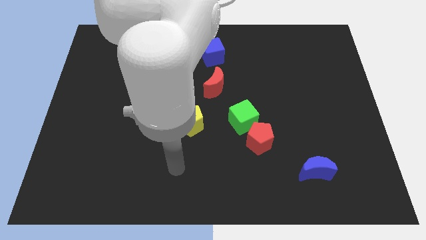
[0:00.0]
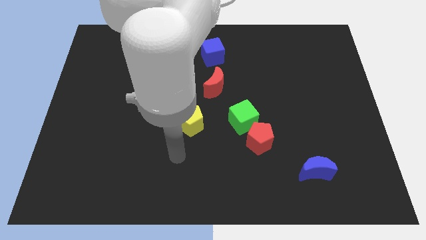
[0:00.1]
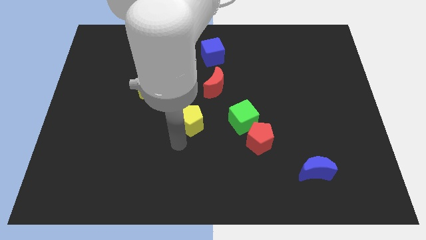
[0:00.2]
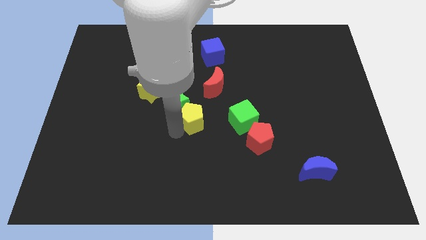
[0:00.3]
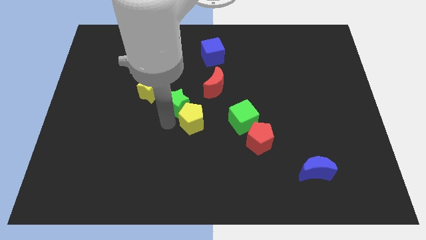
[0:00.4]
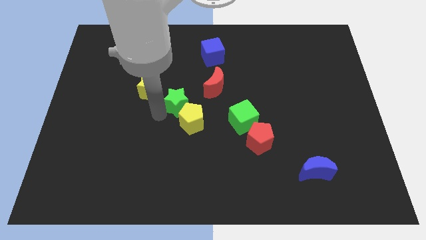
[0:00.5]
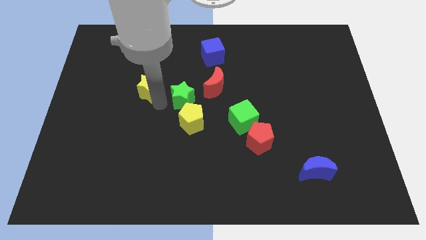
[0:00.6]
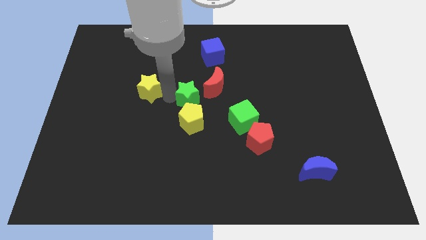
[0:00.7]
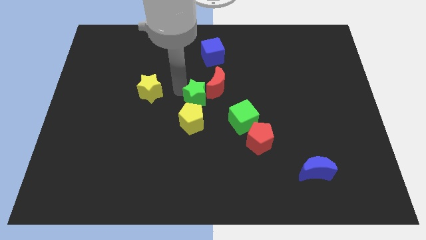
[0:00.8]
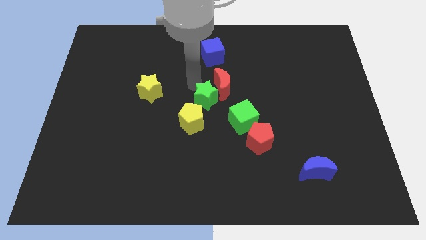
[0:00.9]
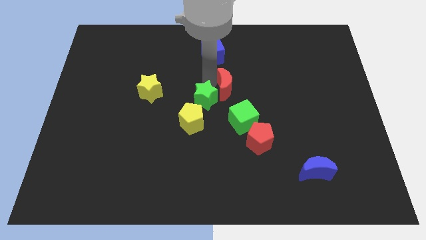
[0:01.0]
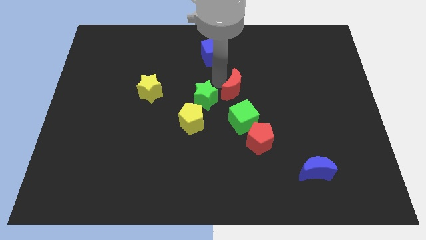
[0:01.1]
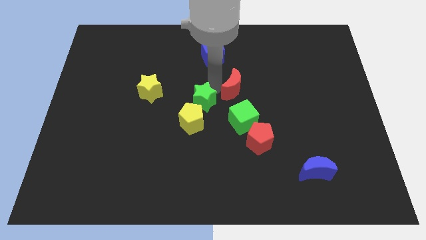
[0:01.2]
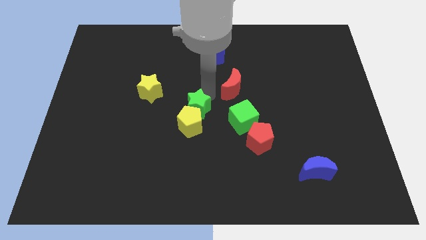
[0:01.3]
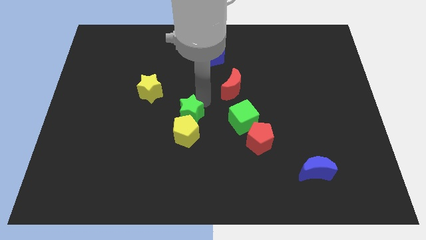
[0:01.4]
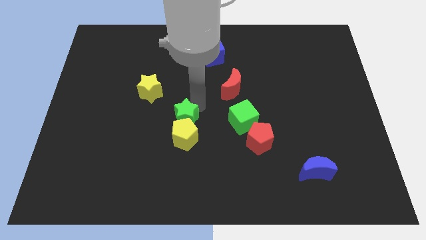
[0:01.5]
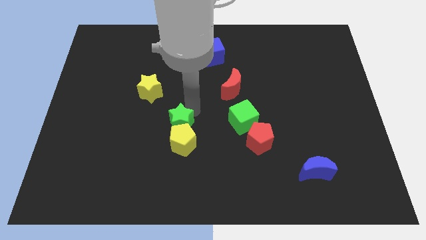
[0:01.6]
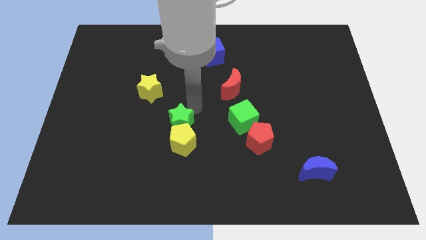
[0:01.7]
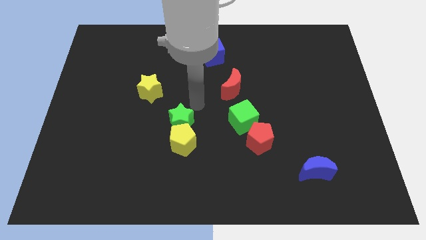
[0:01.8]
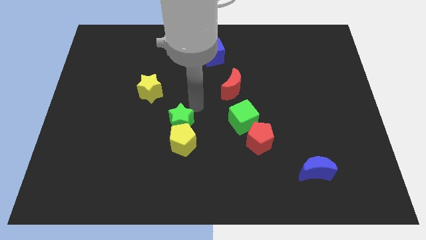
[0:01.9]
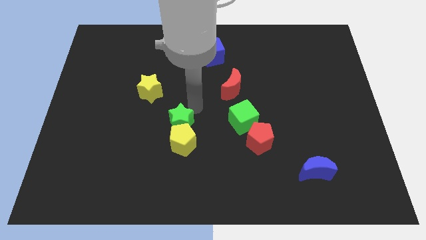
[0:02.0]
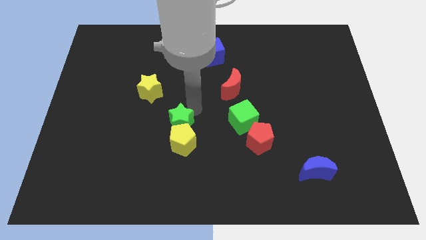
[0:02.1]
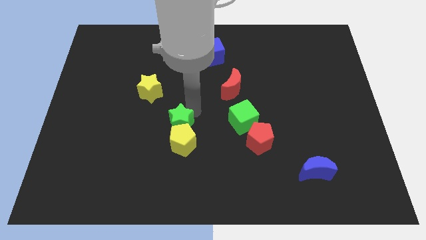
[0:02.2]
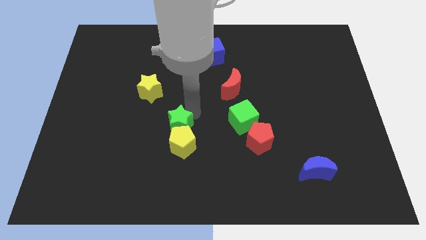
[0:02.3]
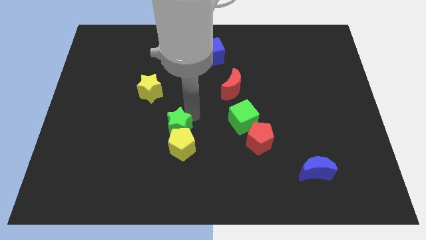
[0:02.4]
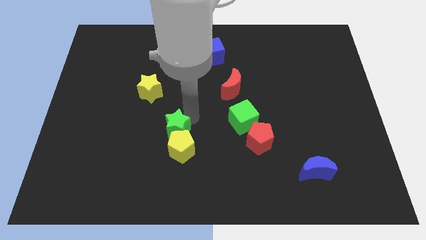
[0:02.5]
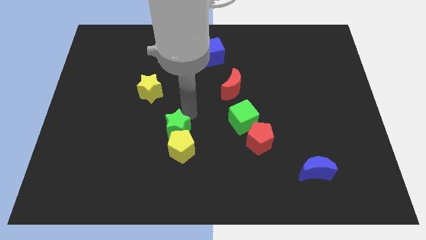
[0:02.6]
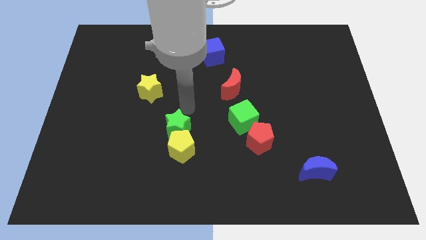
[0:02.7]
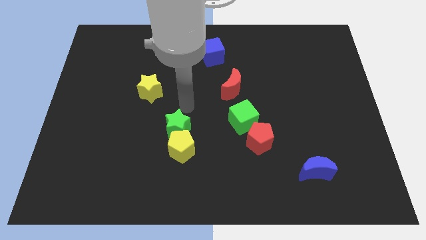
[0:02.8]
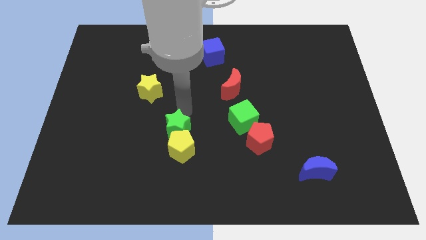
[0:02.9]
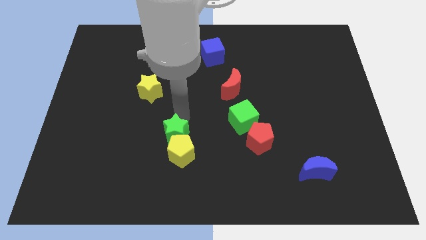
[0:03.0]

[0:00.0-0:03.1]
slightly move the green star down

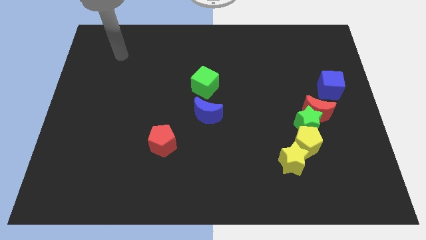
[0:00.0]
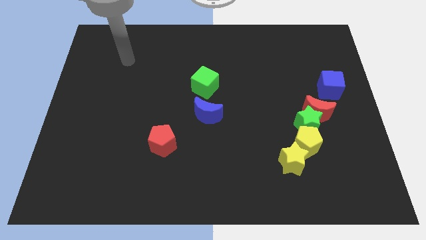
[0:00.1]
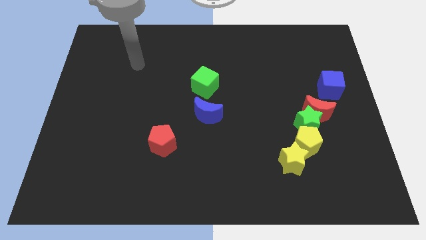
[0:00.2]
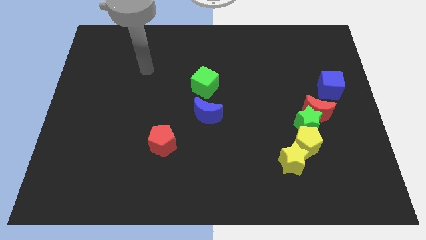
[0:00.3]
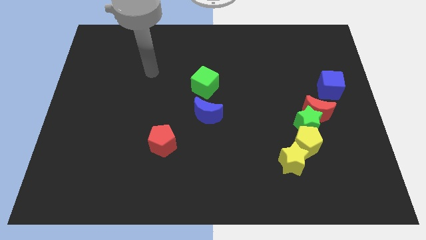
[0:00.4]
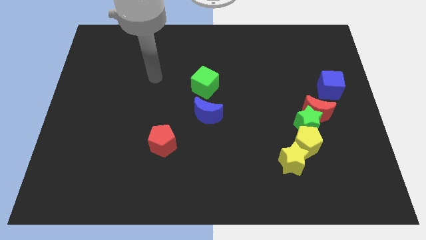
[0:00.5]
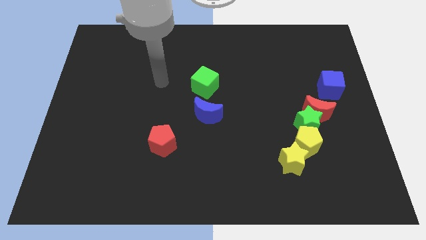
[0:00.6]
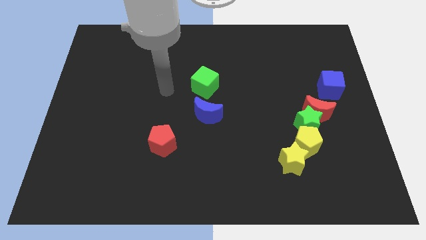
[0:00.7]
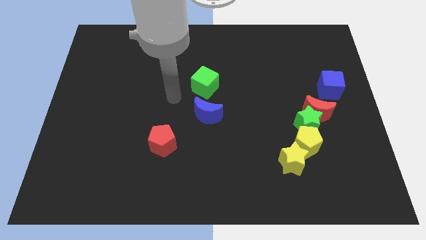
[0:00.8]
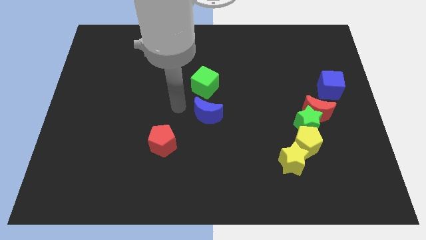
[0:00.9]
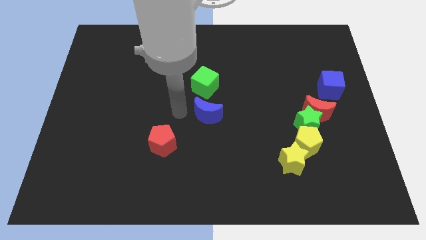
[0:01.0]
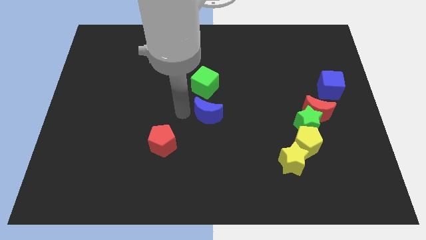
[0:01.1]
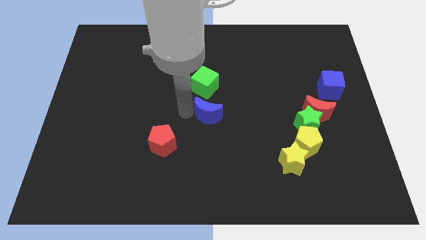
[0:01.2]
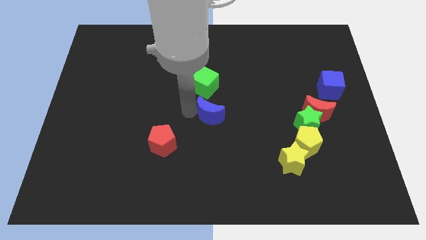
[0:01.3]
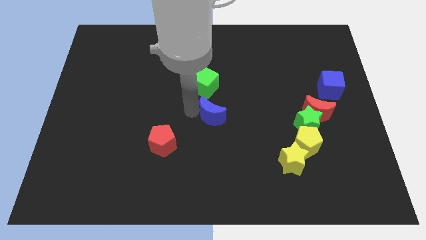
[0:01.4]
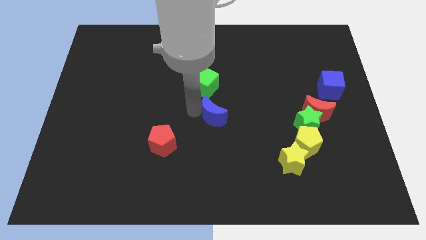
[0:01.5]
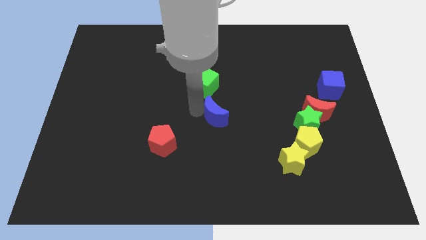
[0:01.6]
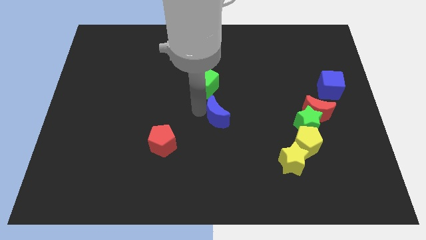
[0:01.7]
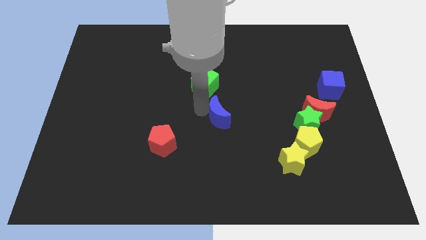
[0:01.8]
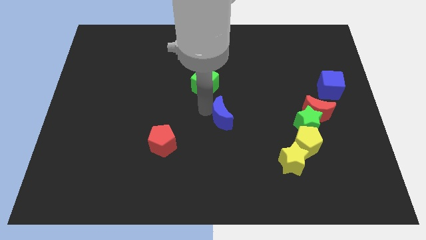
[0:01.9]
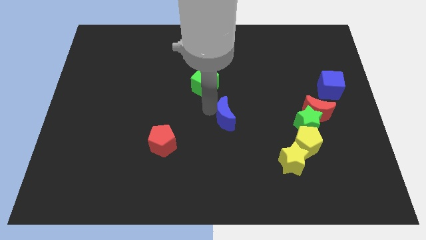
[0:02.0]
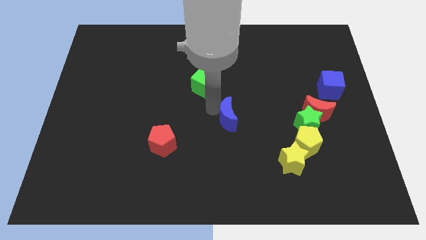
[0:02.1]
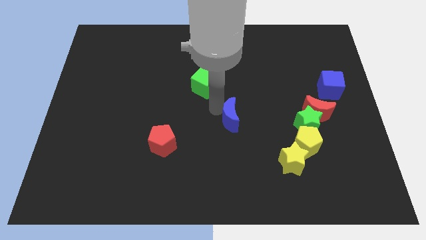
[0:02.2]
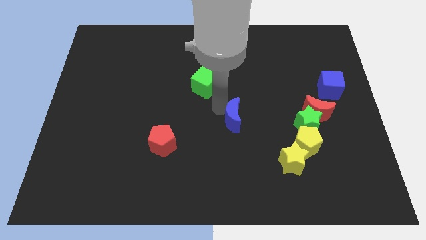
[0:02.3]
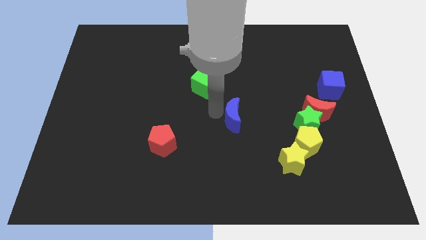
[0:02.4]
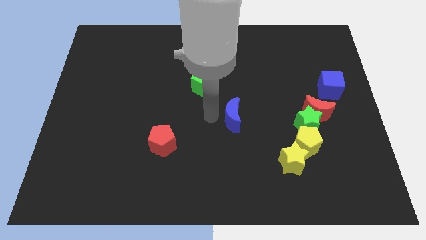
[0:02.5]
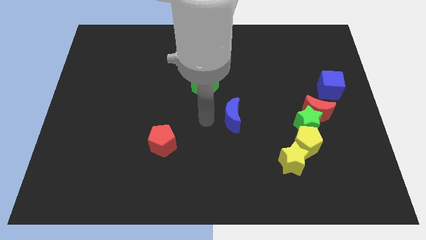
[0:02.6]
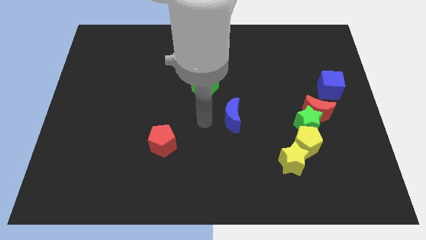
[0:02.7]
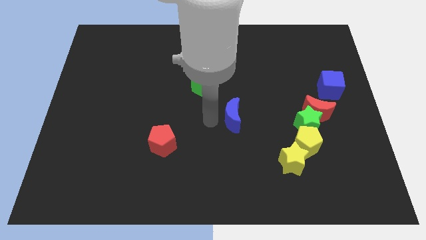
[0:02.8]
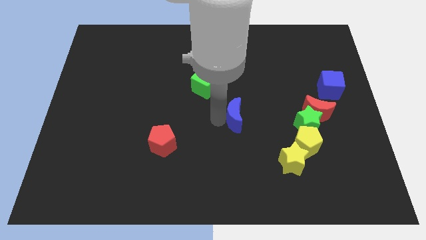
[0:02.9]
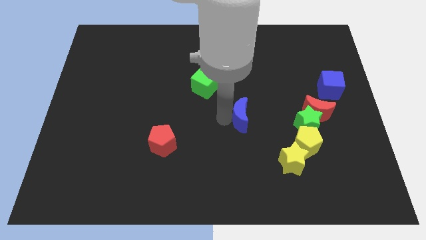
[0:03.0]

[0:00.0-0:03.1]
push the blue moon to the right somewhat

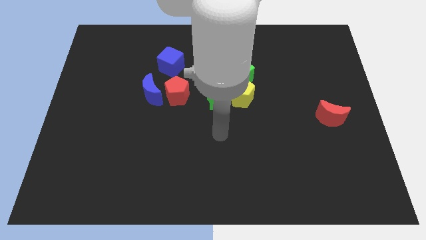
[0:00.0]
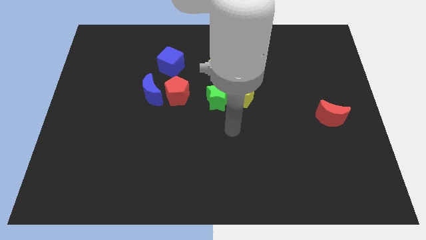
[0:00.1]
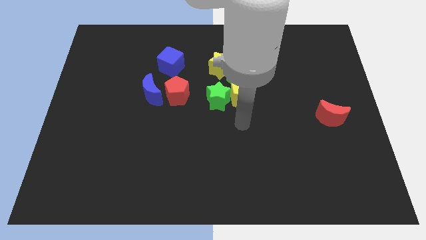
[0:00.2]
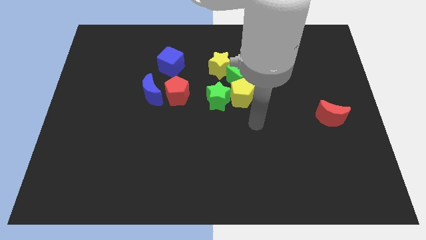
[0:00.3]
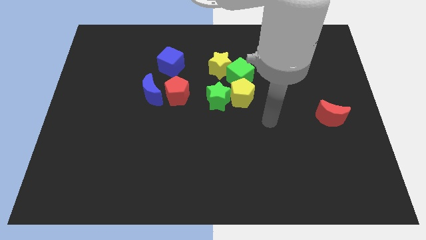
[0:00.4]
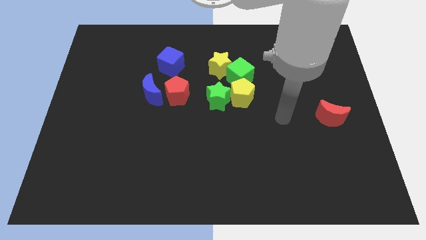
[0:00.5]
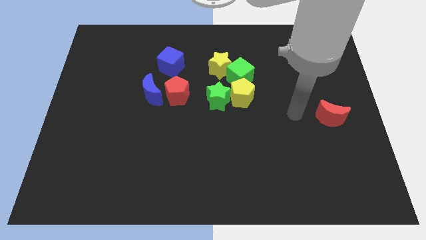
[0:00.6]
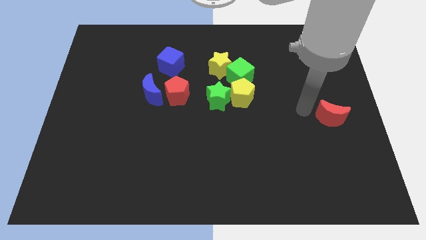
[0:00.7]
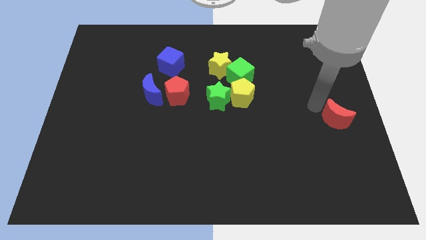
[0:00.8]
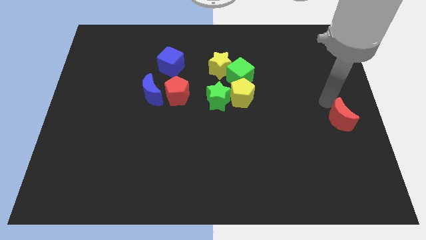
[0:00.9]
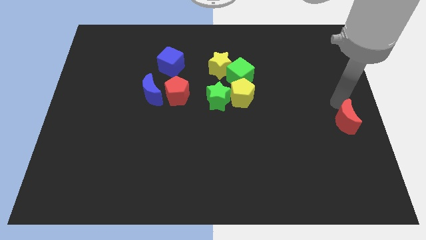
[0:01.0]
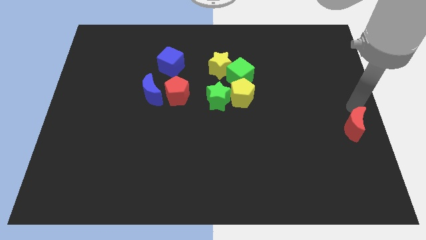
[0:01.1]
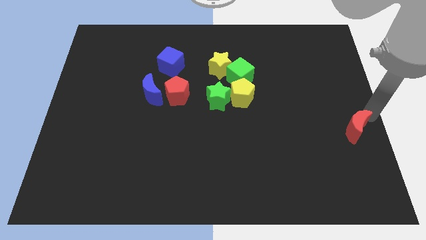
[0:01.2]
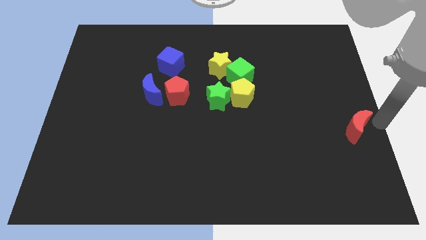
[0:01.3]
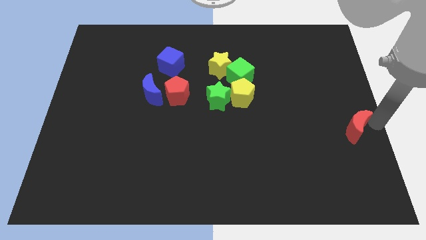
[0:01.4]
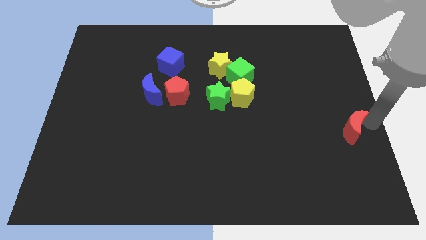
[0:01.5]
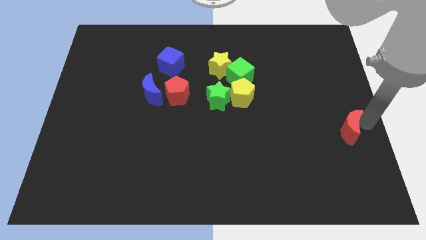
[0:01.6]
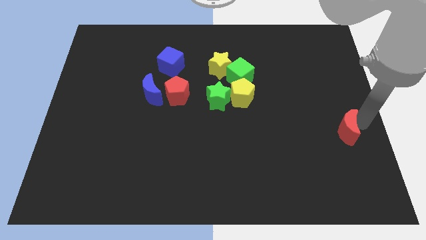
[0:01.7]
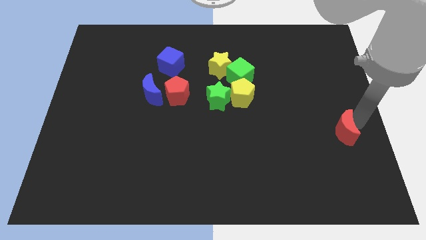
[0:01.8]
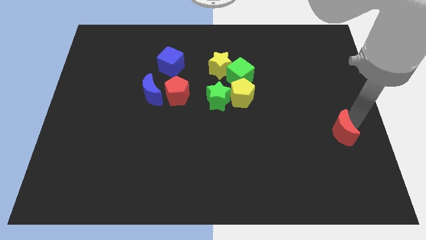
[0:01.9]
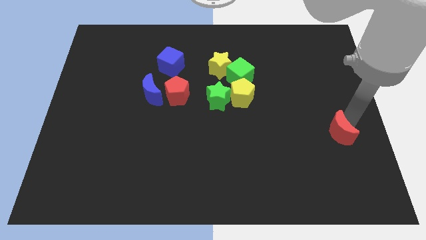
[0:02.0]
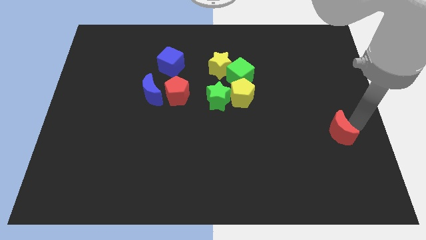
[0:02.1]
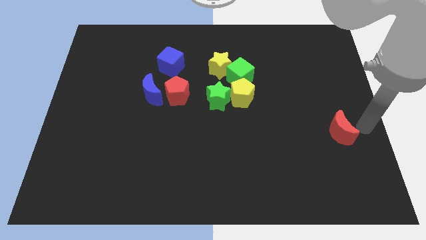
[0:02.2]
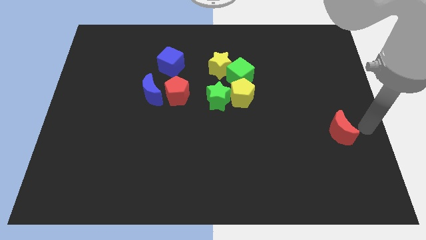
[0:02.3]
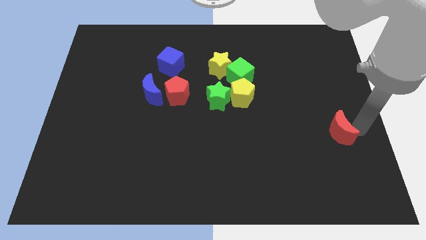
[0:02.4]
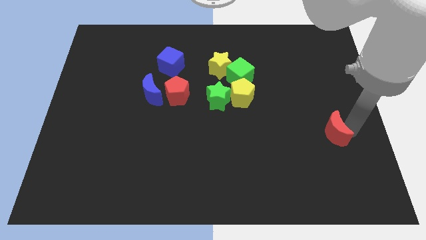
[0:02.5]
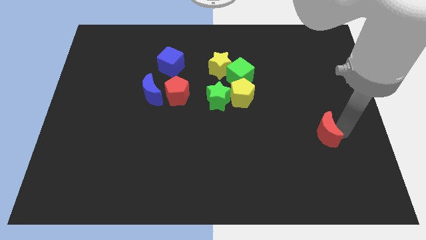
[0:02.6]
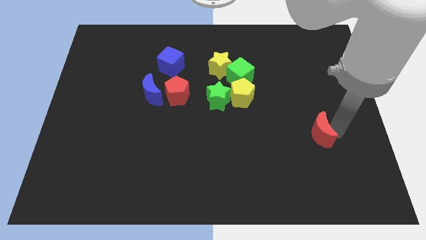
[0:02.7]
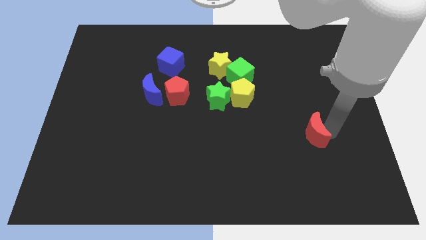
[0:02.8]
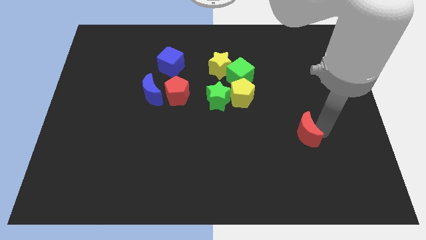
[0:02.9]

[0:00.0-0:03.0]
move the red moon downwards and left diagonally a little
